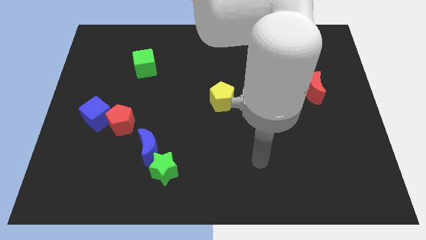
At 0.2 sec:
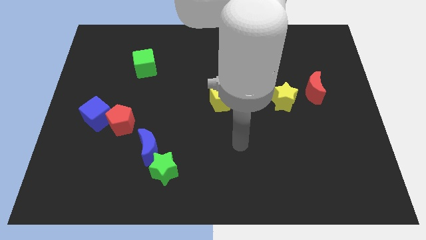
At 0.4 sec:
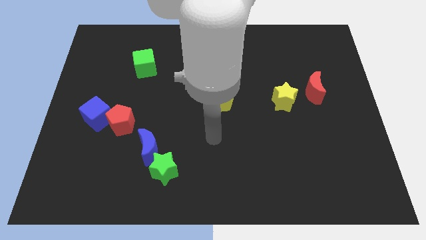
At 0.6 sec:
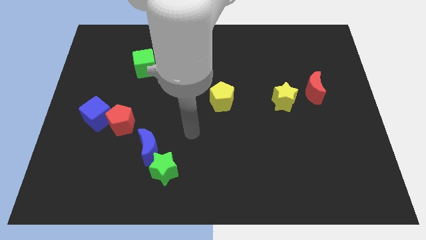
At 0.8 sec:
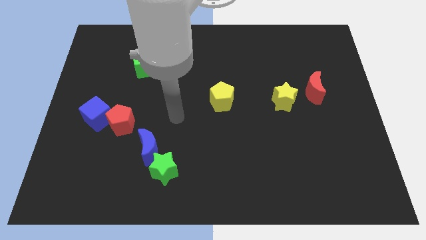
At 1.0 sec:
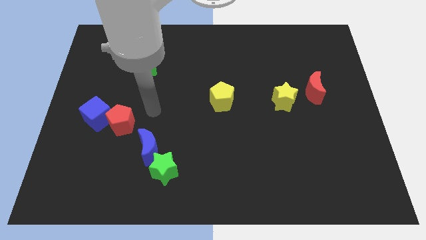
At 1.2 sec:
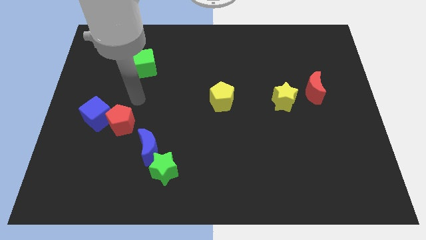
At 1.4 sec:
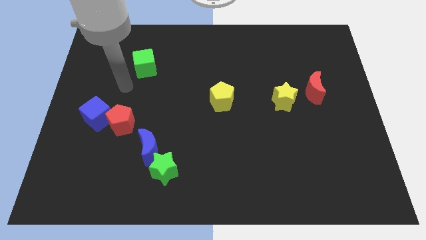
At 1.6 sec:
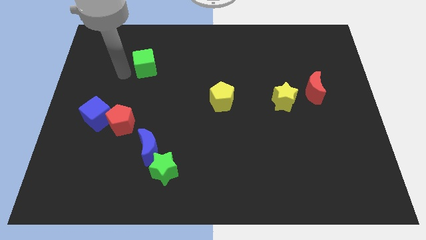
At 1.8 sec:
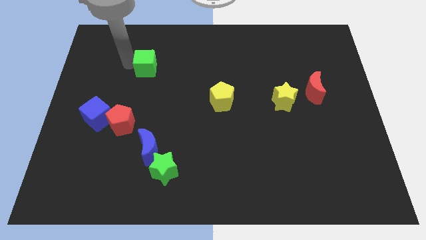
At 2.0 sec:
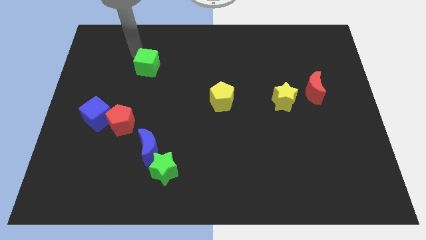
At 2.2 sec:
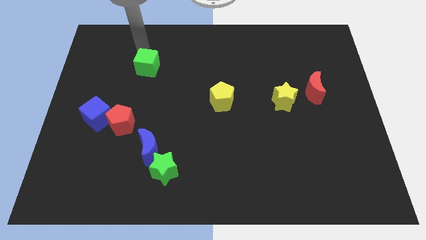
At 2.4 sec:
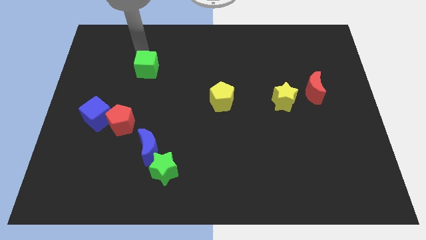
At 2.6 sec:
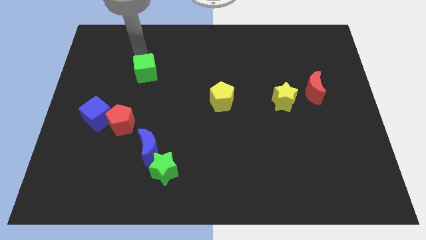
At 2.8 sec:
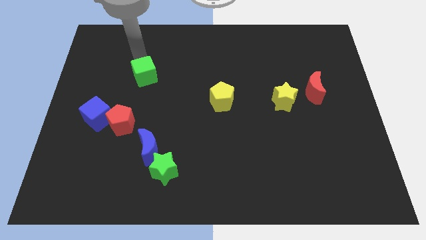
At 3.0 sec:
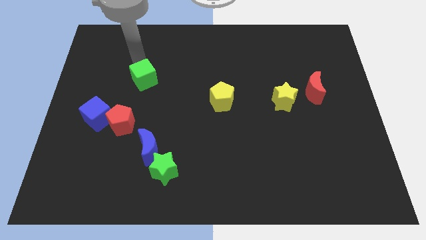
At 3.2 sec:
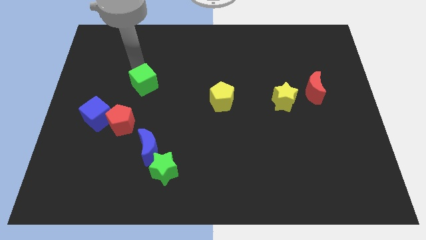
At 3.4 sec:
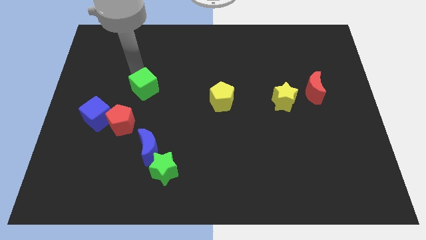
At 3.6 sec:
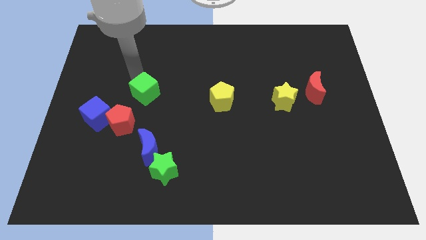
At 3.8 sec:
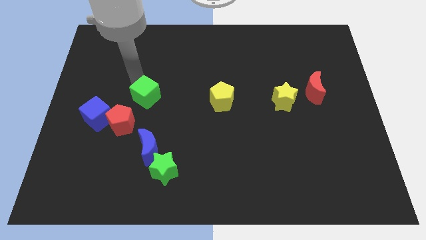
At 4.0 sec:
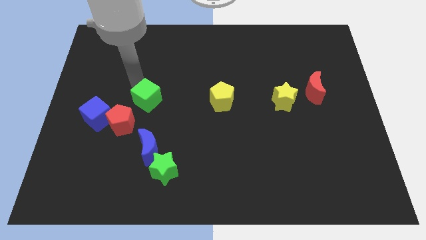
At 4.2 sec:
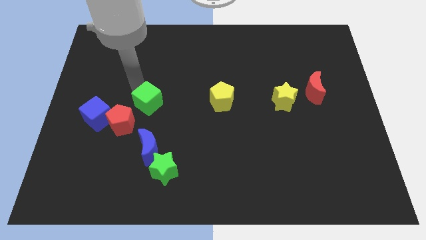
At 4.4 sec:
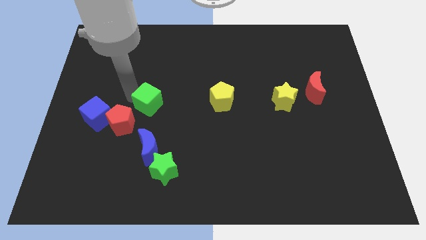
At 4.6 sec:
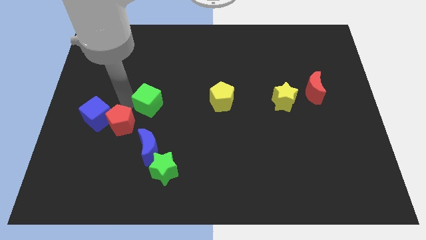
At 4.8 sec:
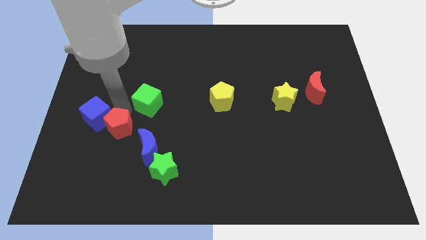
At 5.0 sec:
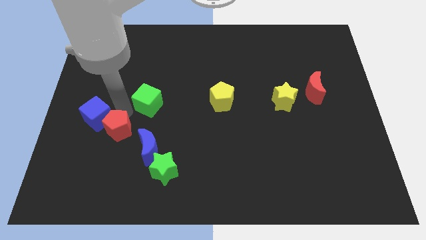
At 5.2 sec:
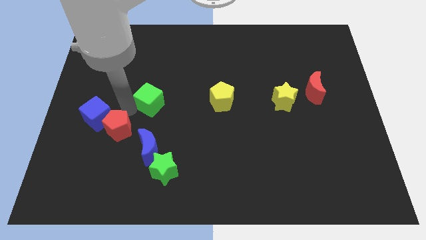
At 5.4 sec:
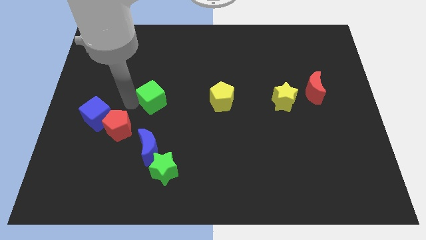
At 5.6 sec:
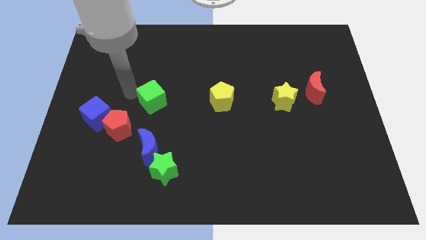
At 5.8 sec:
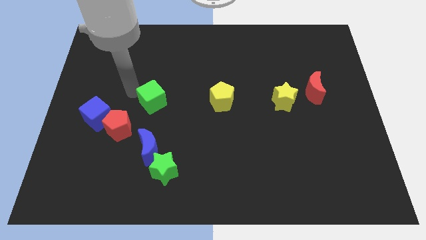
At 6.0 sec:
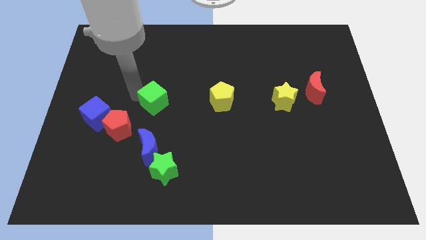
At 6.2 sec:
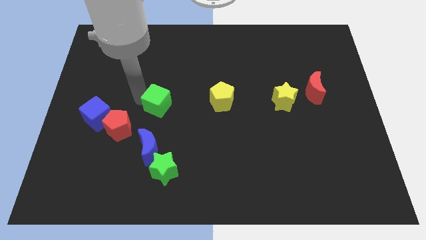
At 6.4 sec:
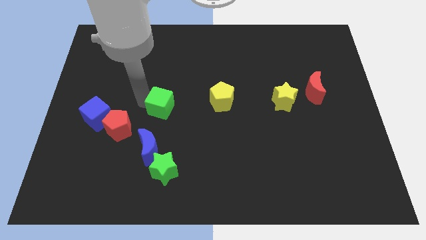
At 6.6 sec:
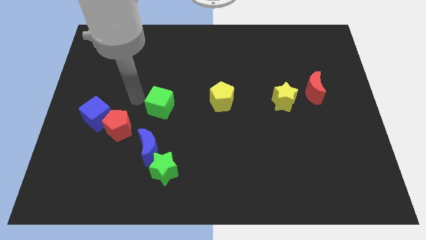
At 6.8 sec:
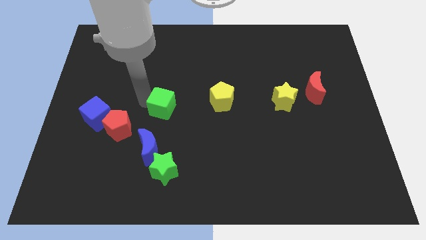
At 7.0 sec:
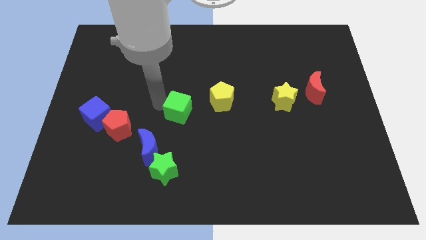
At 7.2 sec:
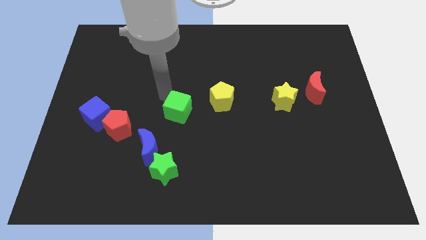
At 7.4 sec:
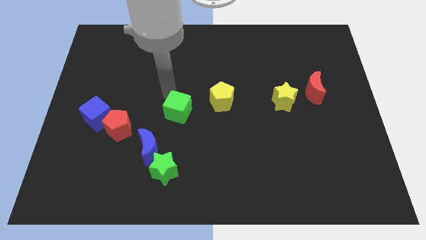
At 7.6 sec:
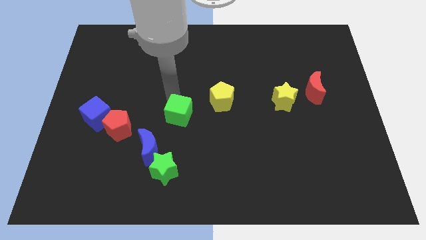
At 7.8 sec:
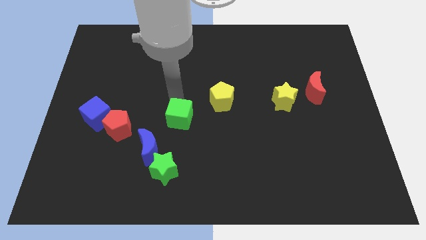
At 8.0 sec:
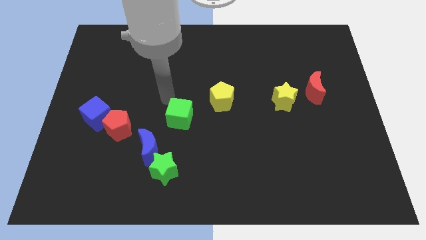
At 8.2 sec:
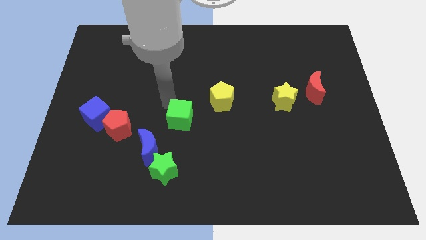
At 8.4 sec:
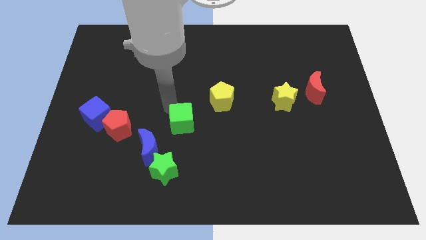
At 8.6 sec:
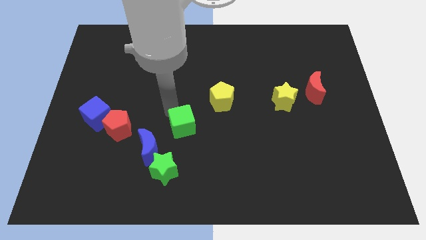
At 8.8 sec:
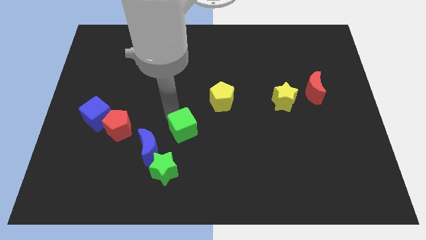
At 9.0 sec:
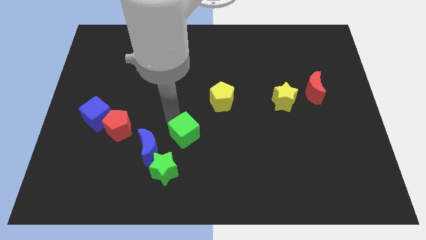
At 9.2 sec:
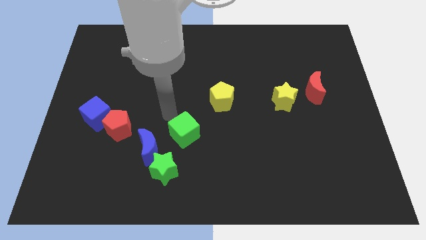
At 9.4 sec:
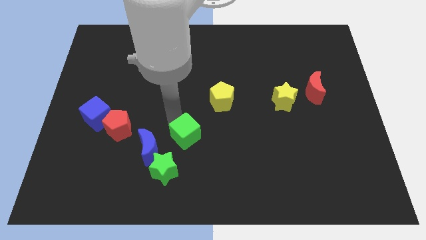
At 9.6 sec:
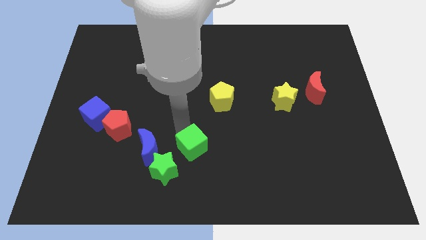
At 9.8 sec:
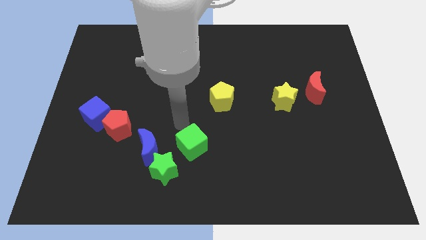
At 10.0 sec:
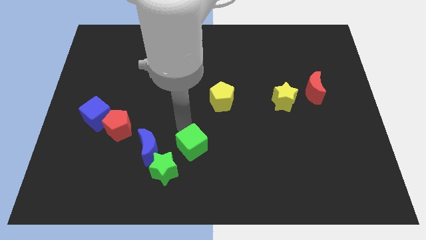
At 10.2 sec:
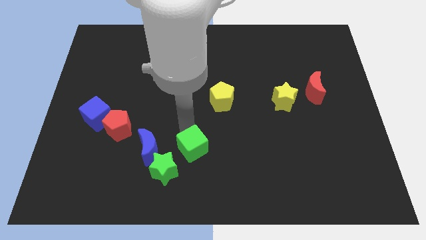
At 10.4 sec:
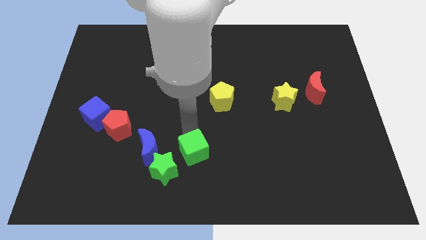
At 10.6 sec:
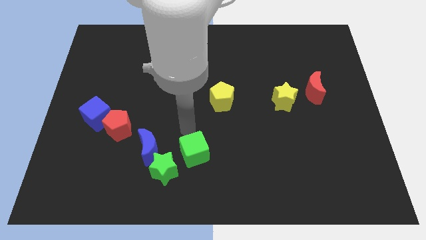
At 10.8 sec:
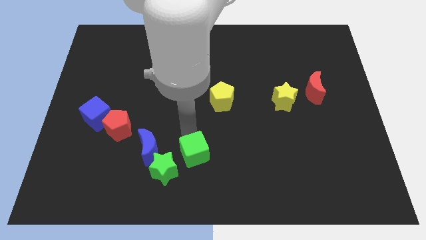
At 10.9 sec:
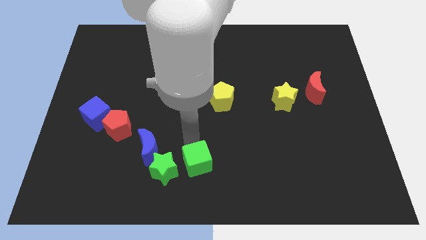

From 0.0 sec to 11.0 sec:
put the green cube to the bottom
